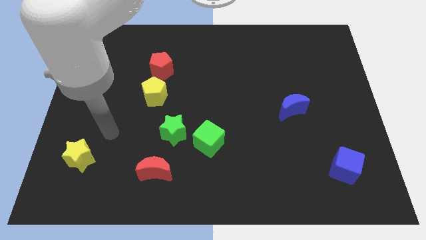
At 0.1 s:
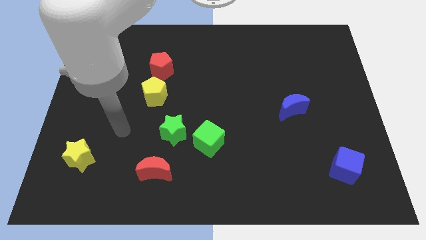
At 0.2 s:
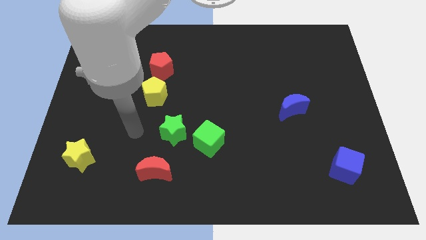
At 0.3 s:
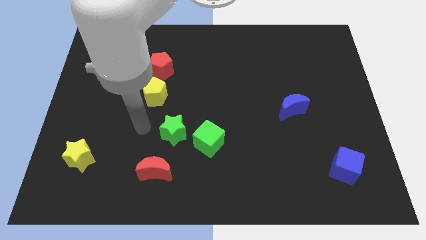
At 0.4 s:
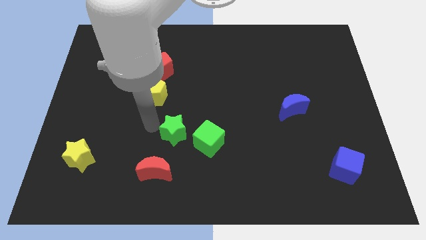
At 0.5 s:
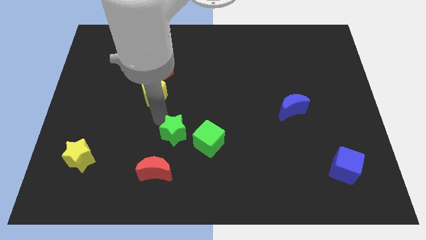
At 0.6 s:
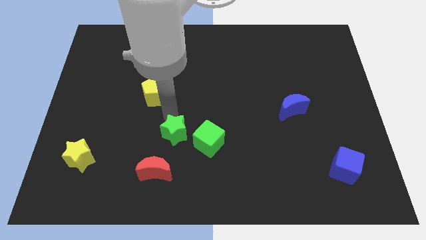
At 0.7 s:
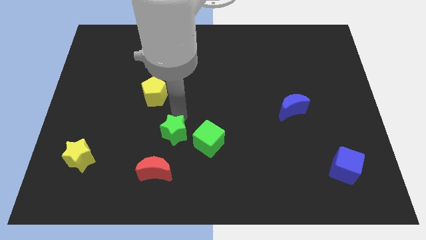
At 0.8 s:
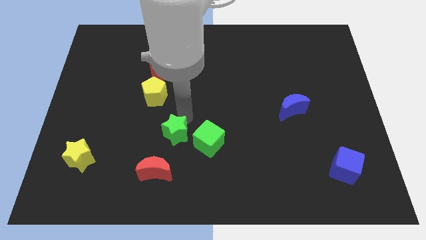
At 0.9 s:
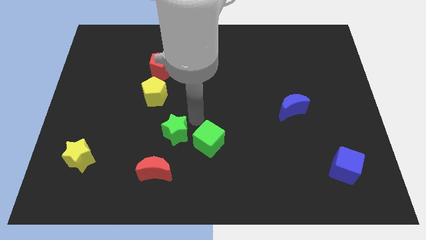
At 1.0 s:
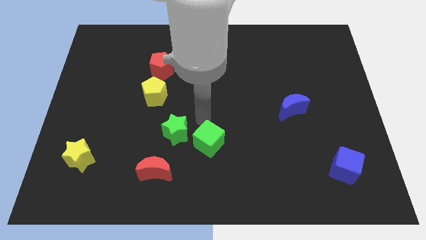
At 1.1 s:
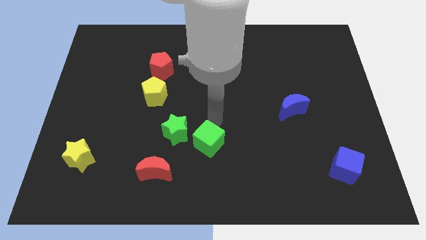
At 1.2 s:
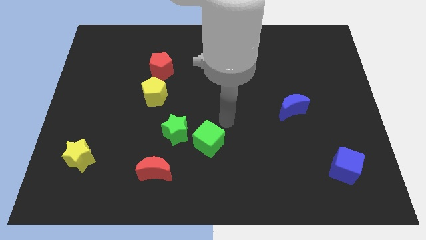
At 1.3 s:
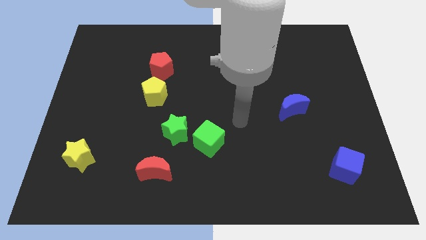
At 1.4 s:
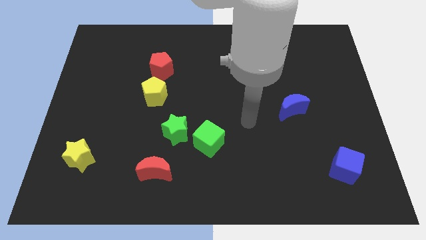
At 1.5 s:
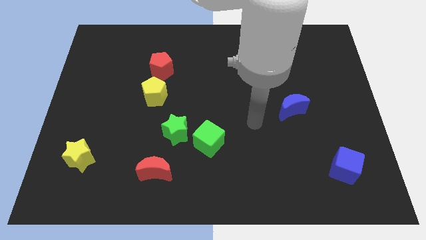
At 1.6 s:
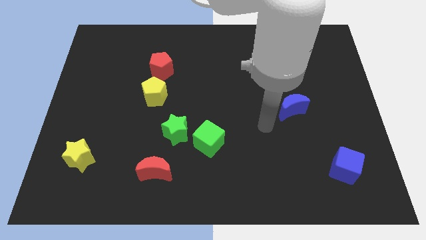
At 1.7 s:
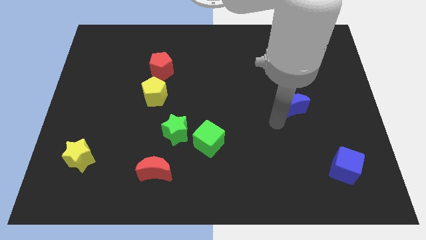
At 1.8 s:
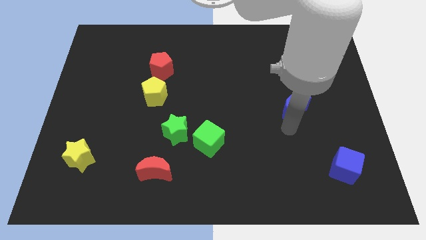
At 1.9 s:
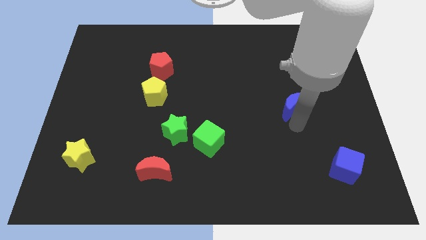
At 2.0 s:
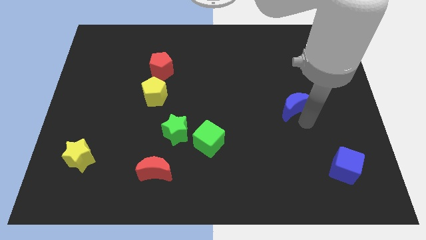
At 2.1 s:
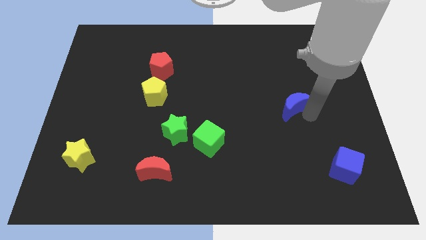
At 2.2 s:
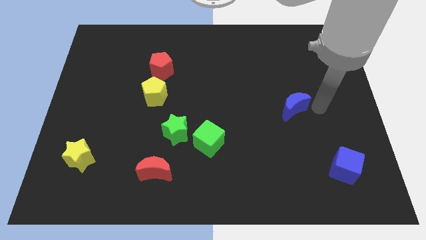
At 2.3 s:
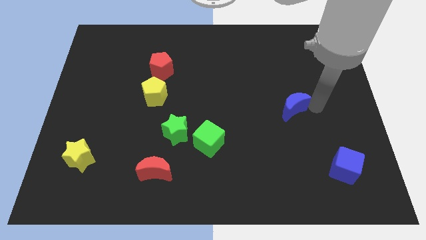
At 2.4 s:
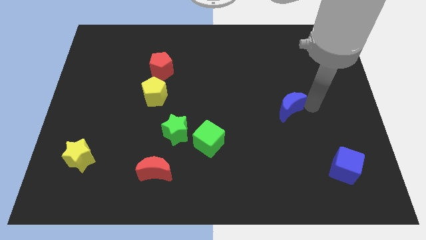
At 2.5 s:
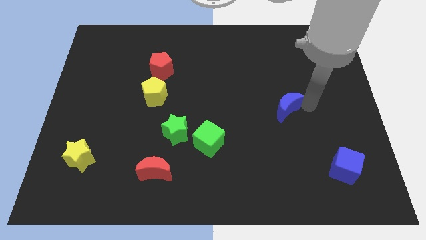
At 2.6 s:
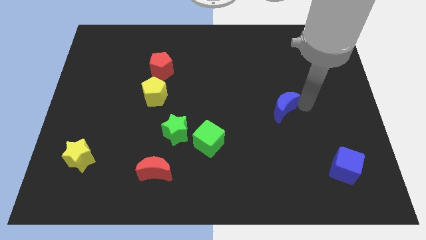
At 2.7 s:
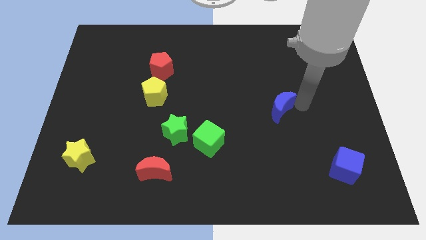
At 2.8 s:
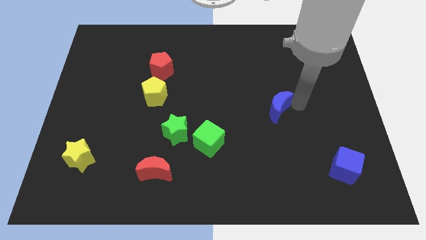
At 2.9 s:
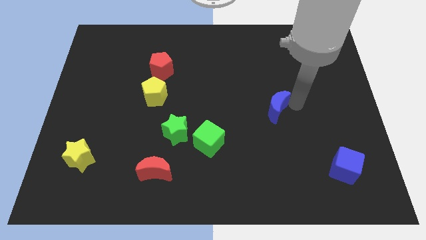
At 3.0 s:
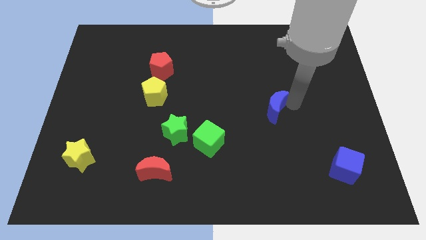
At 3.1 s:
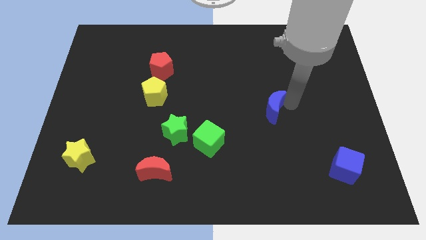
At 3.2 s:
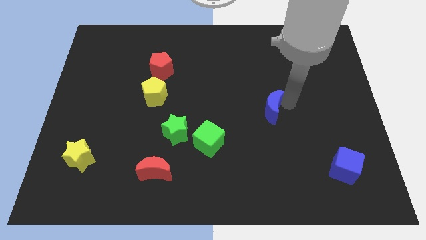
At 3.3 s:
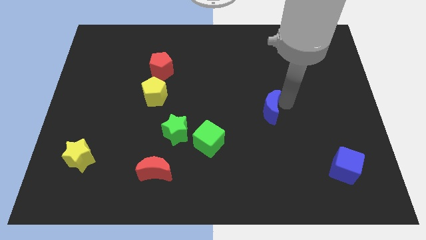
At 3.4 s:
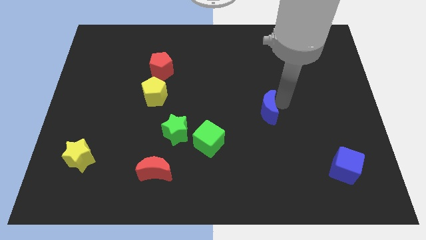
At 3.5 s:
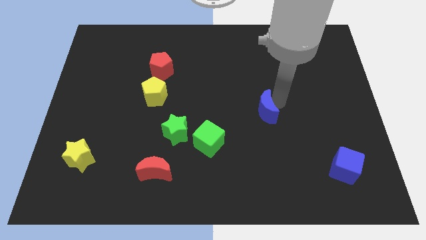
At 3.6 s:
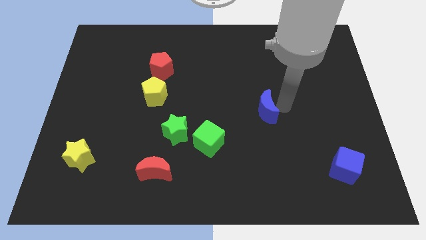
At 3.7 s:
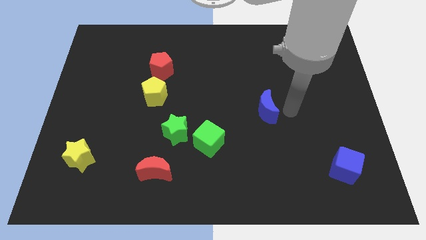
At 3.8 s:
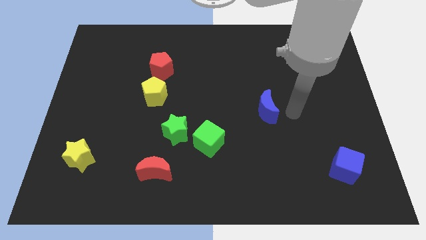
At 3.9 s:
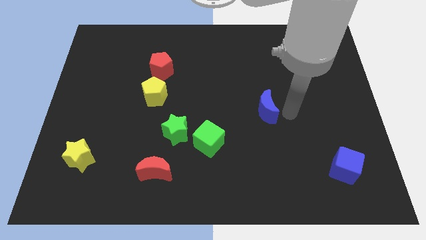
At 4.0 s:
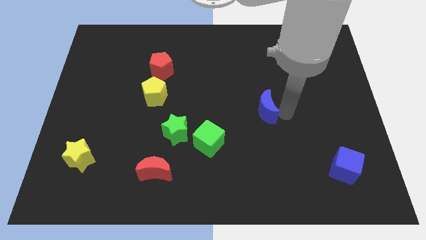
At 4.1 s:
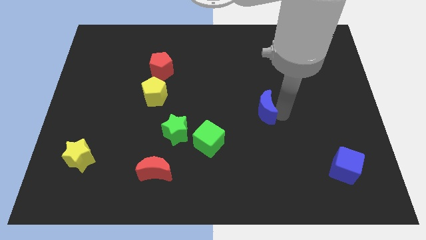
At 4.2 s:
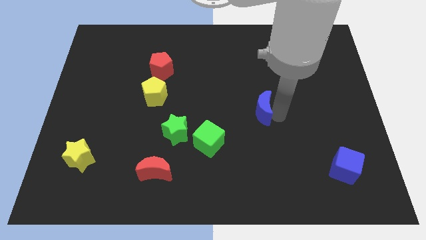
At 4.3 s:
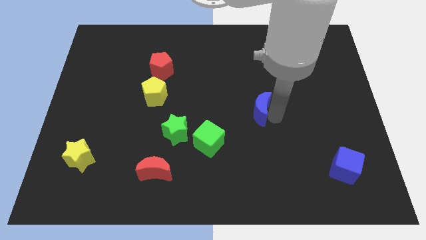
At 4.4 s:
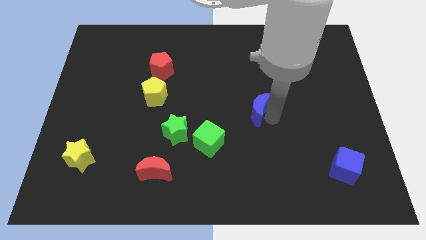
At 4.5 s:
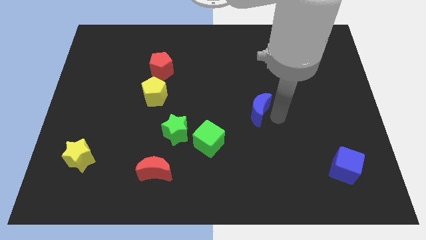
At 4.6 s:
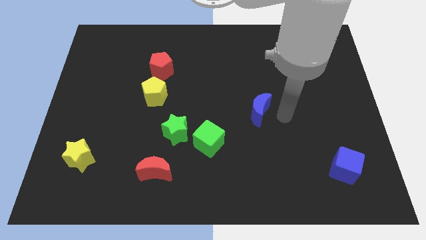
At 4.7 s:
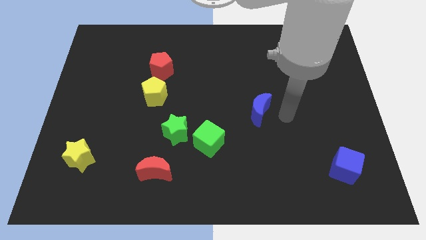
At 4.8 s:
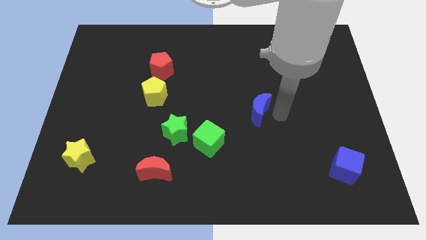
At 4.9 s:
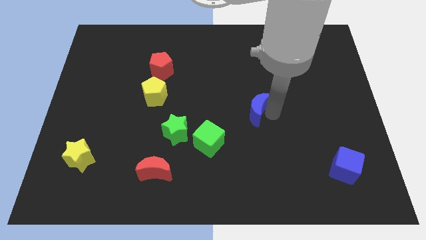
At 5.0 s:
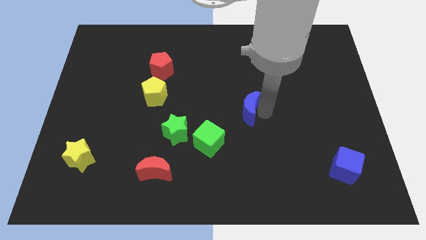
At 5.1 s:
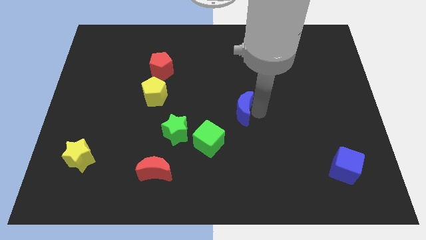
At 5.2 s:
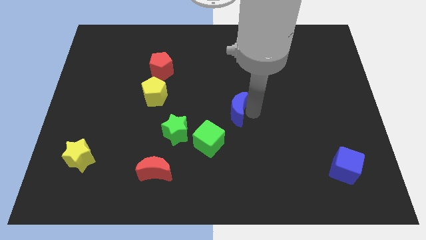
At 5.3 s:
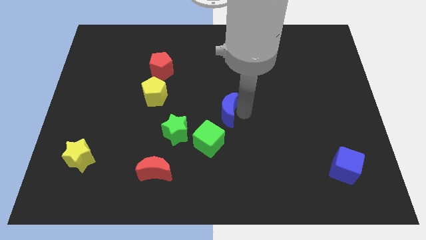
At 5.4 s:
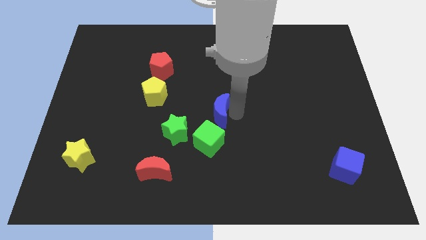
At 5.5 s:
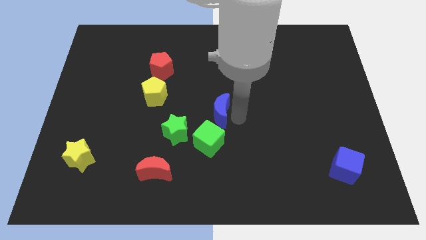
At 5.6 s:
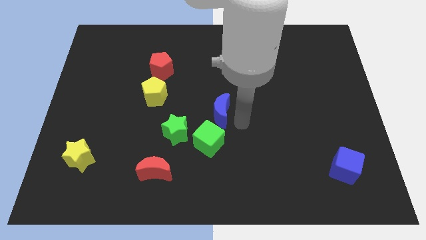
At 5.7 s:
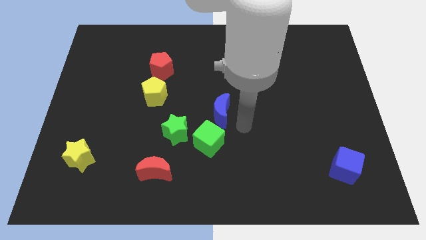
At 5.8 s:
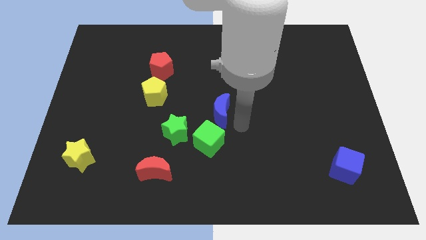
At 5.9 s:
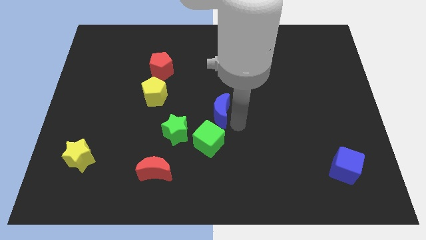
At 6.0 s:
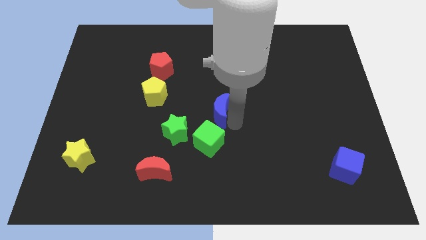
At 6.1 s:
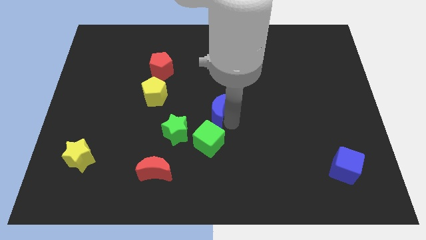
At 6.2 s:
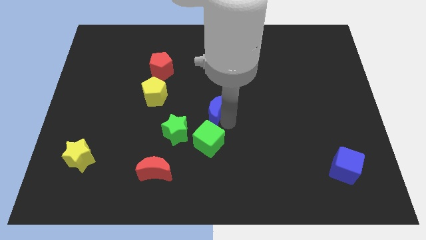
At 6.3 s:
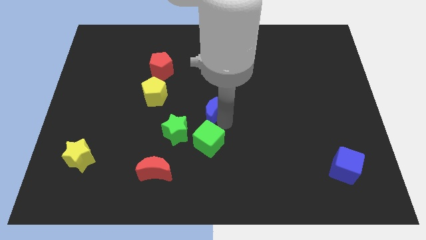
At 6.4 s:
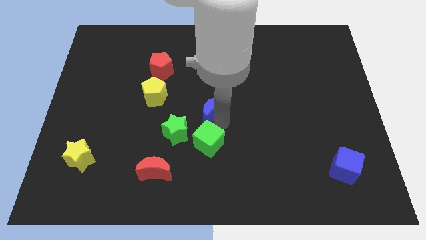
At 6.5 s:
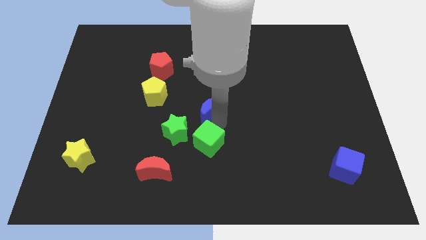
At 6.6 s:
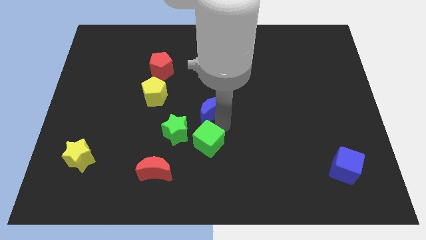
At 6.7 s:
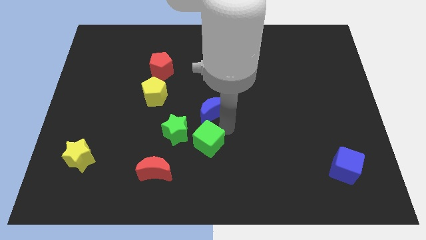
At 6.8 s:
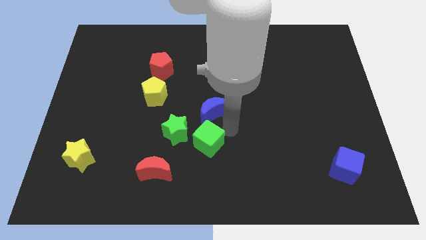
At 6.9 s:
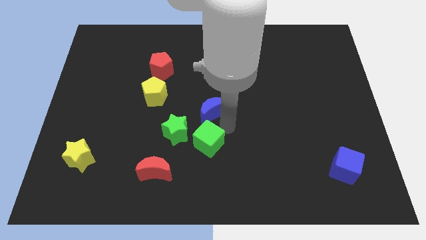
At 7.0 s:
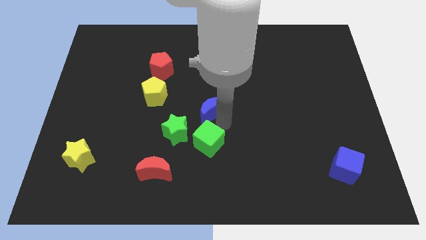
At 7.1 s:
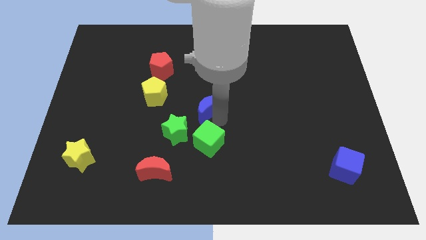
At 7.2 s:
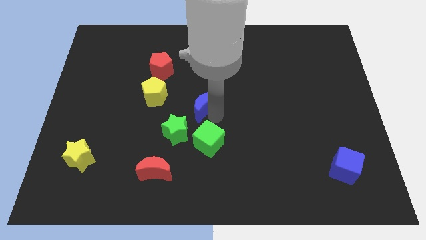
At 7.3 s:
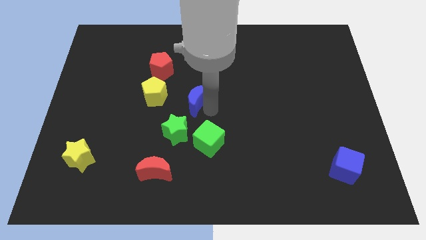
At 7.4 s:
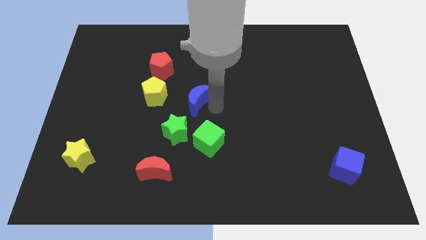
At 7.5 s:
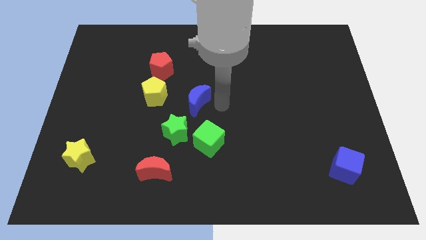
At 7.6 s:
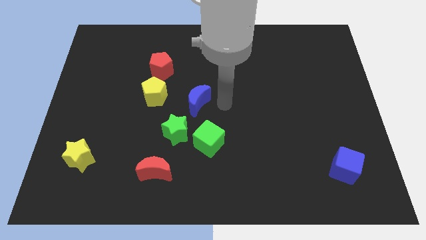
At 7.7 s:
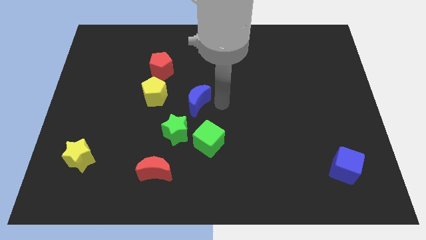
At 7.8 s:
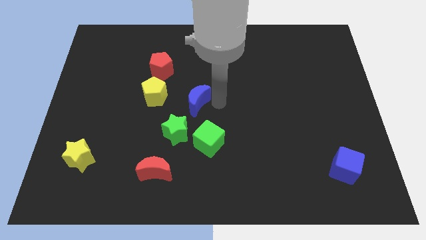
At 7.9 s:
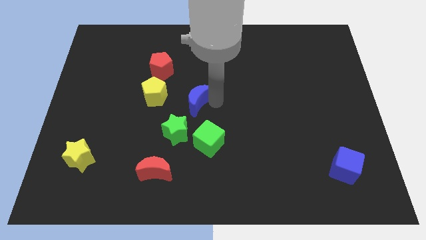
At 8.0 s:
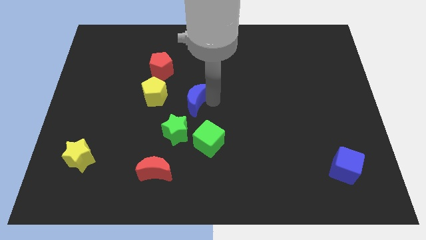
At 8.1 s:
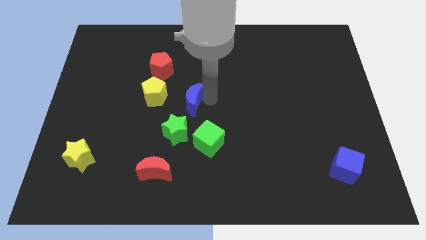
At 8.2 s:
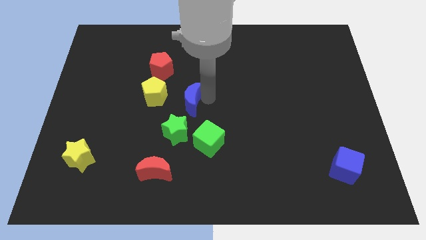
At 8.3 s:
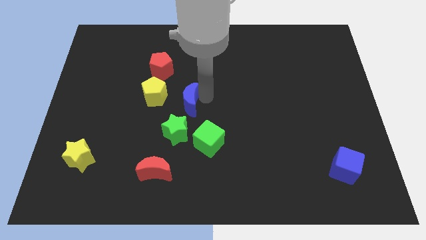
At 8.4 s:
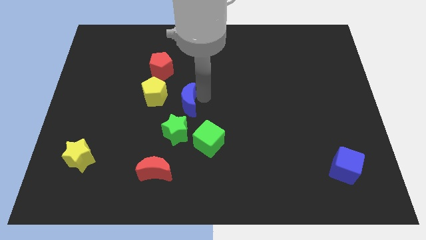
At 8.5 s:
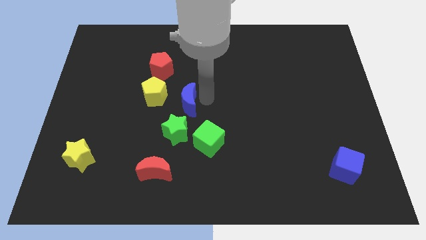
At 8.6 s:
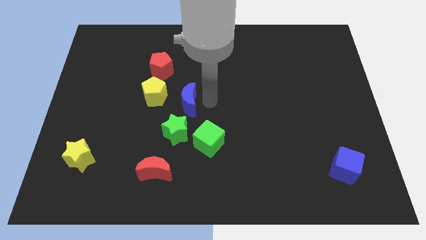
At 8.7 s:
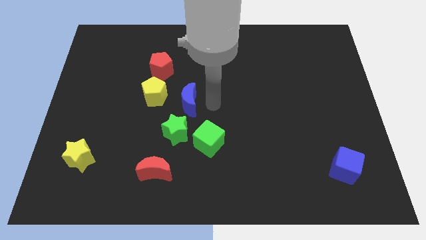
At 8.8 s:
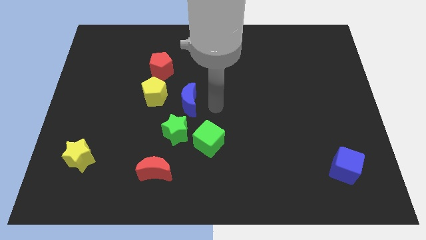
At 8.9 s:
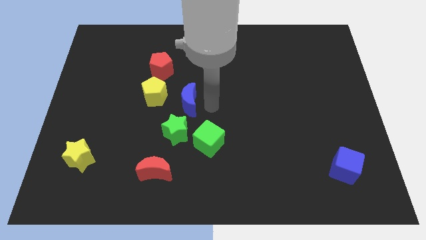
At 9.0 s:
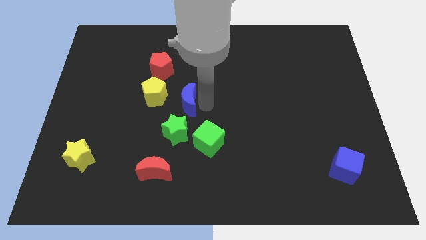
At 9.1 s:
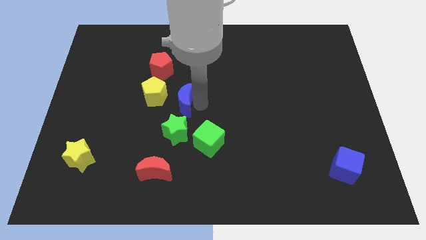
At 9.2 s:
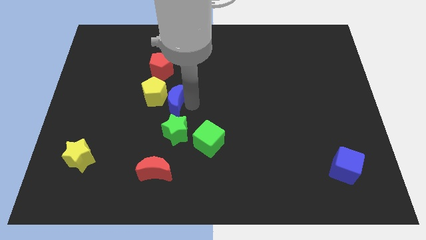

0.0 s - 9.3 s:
move the blue moon to the yellow pentagon
